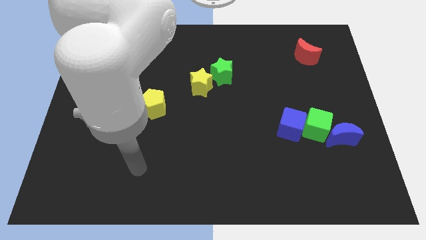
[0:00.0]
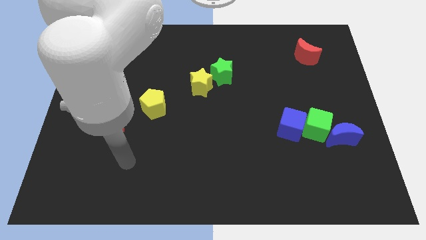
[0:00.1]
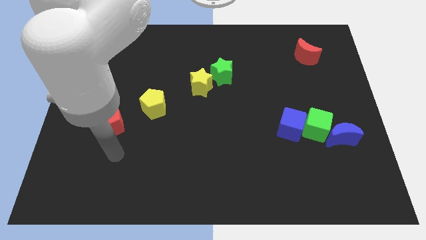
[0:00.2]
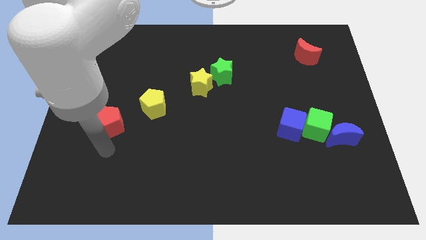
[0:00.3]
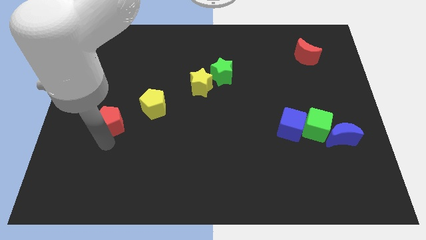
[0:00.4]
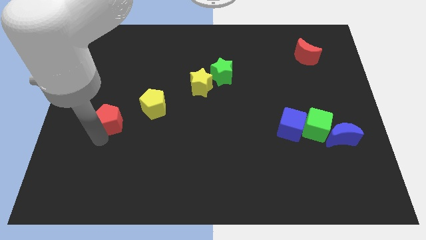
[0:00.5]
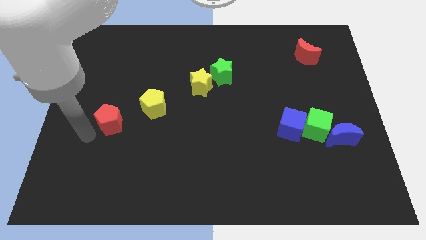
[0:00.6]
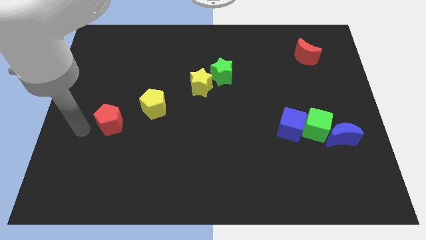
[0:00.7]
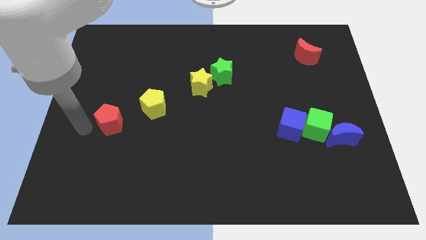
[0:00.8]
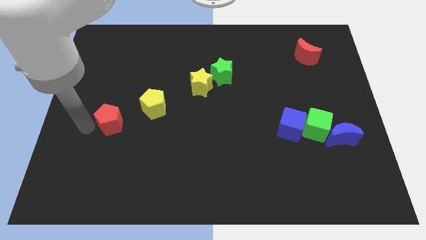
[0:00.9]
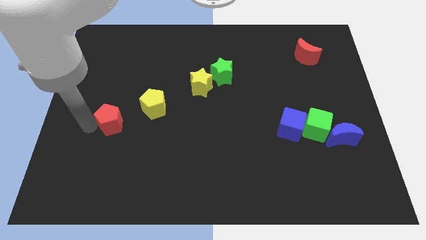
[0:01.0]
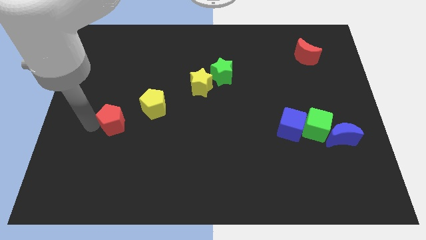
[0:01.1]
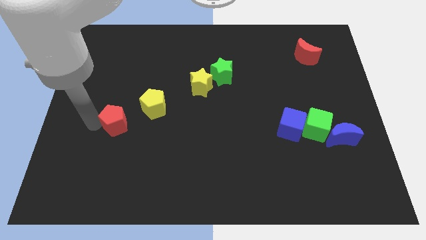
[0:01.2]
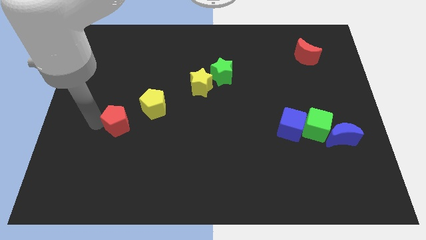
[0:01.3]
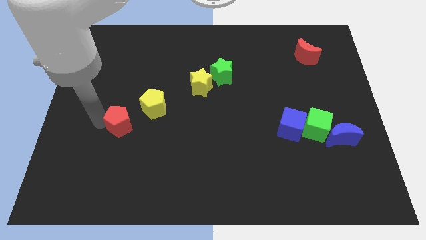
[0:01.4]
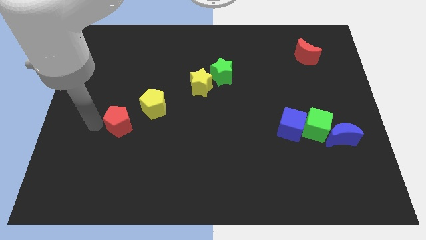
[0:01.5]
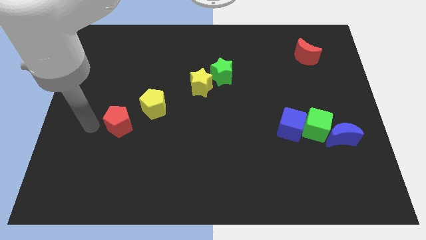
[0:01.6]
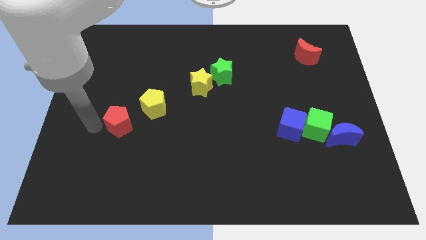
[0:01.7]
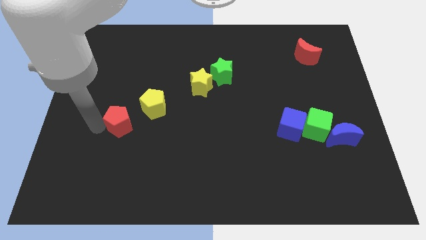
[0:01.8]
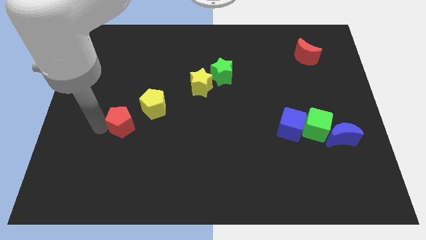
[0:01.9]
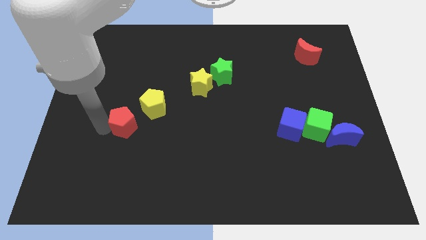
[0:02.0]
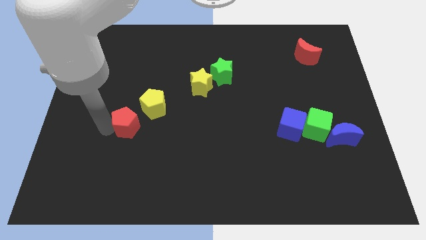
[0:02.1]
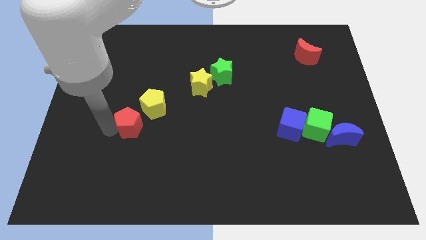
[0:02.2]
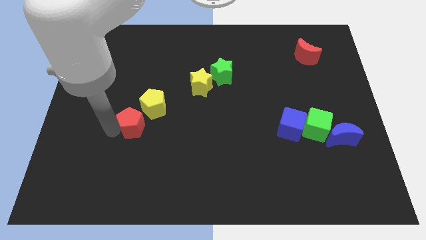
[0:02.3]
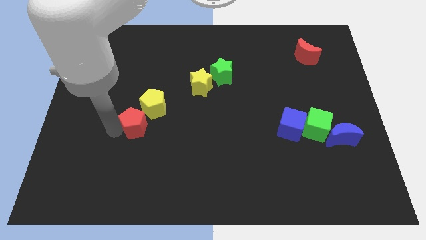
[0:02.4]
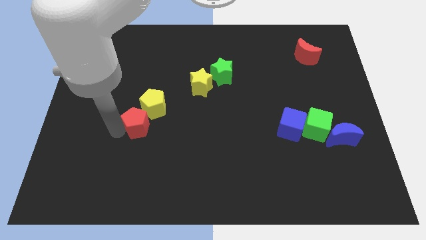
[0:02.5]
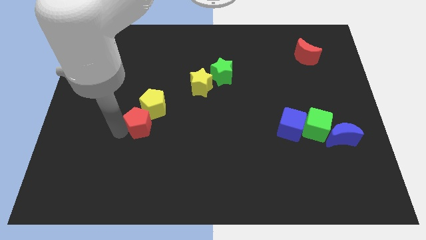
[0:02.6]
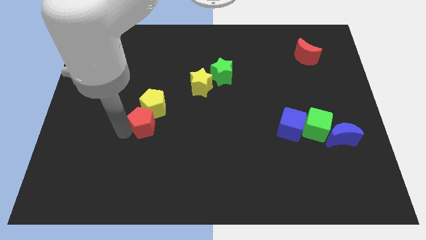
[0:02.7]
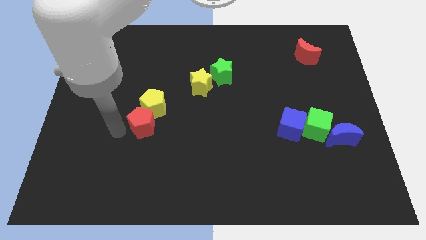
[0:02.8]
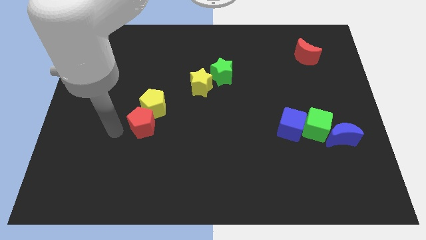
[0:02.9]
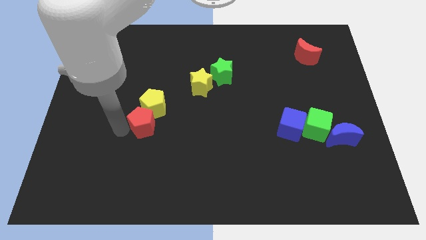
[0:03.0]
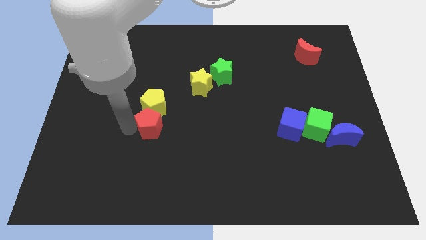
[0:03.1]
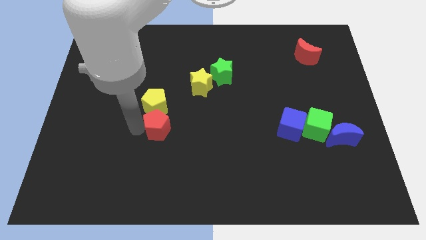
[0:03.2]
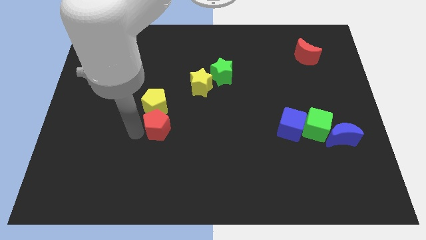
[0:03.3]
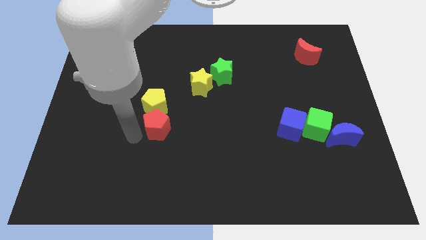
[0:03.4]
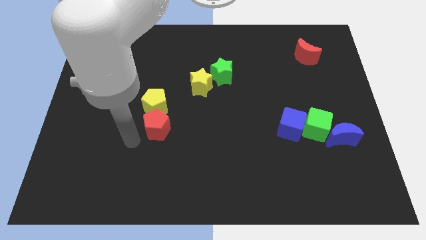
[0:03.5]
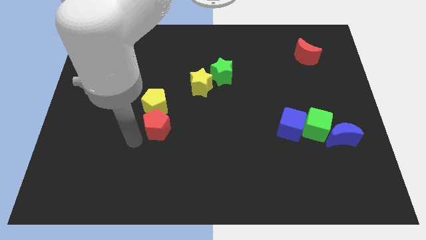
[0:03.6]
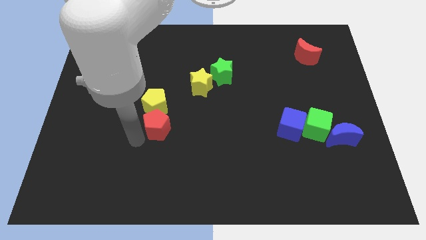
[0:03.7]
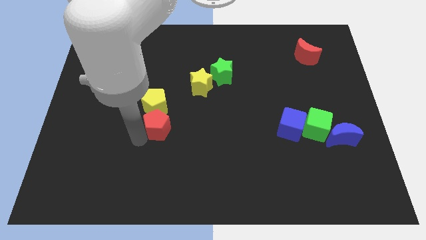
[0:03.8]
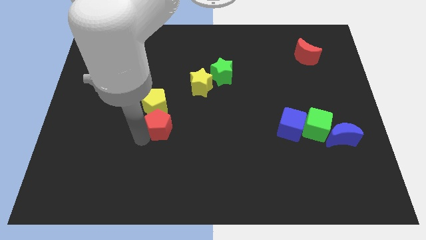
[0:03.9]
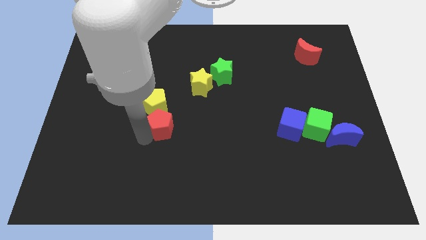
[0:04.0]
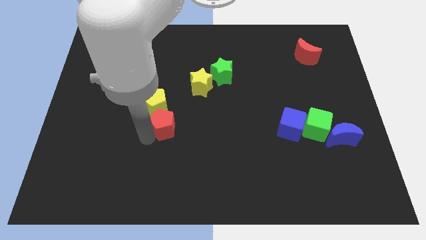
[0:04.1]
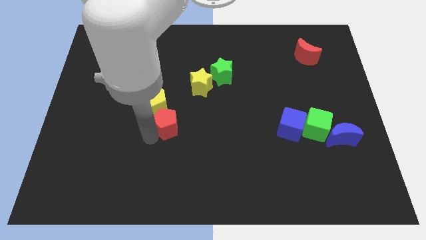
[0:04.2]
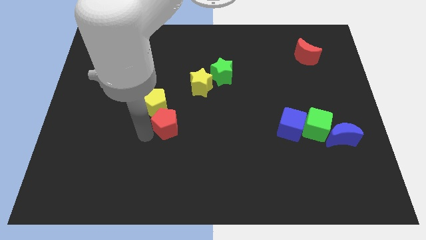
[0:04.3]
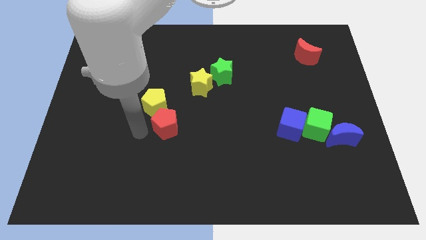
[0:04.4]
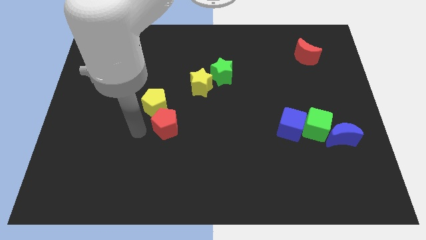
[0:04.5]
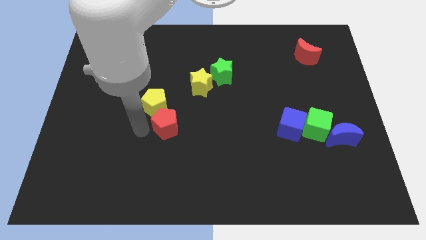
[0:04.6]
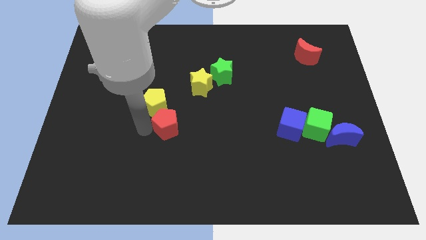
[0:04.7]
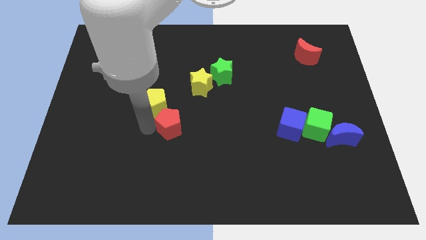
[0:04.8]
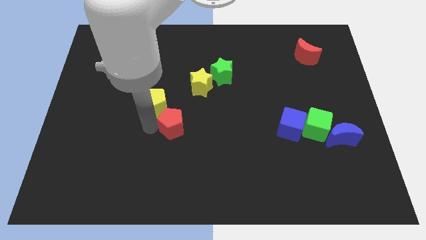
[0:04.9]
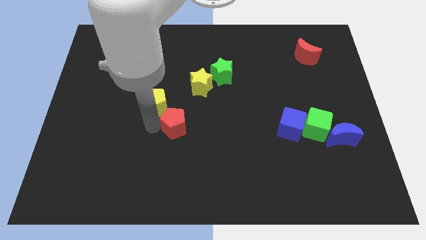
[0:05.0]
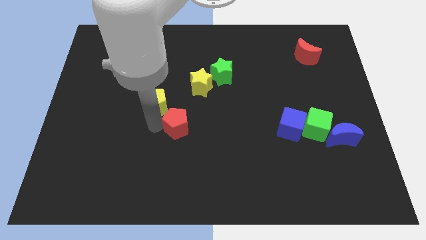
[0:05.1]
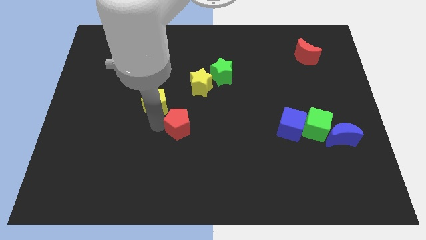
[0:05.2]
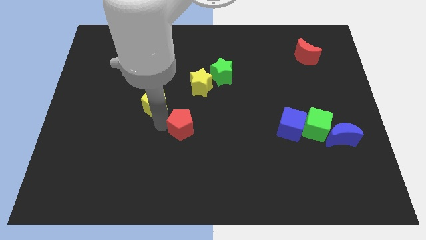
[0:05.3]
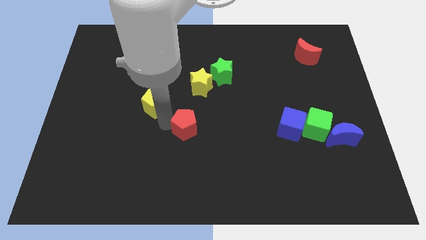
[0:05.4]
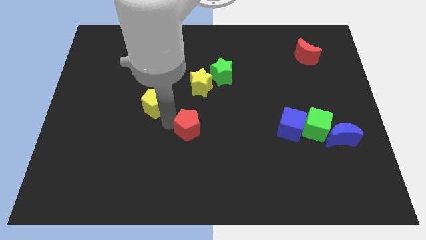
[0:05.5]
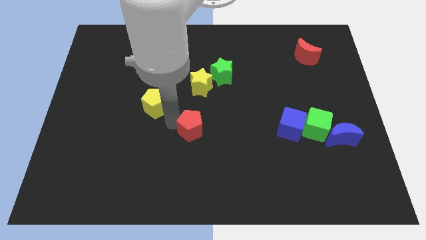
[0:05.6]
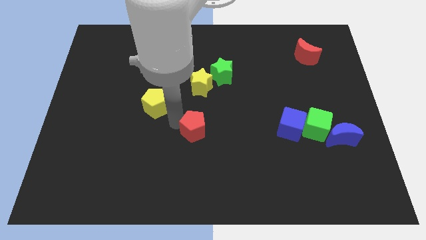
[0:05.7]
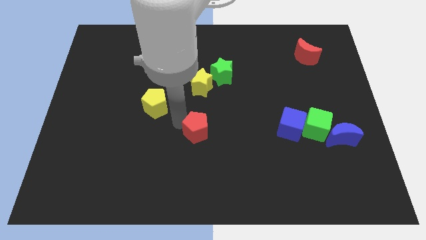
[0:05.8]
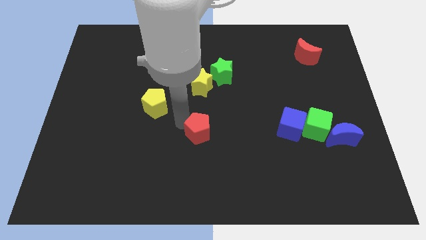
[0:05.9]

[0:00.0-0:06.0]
move the red pentagon to the right

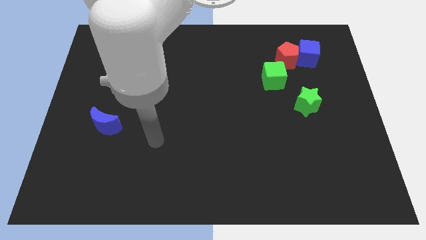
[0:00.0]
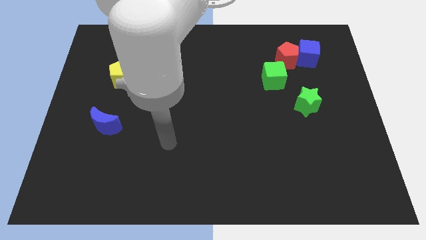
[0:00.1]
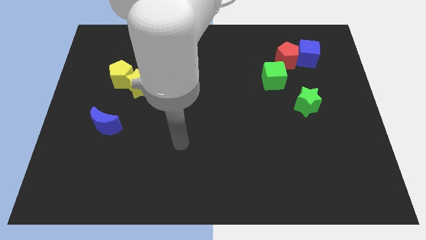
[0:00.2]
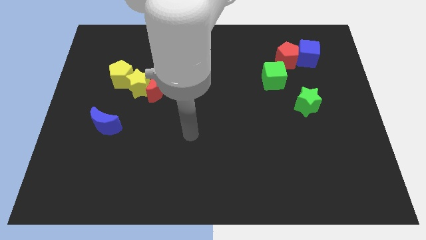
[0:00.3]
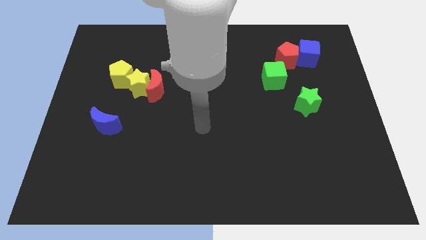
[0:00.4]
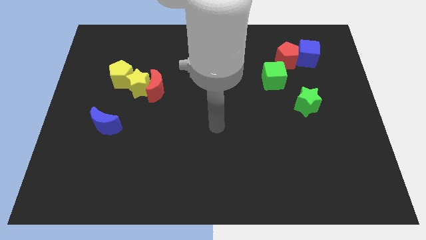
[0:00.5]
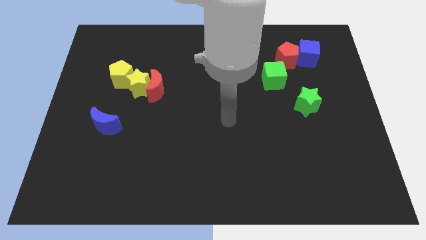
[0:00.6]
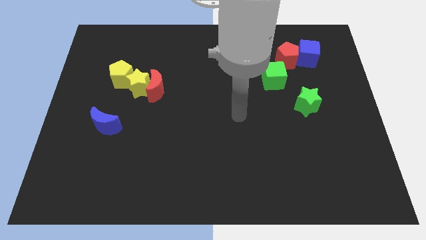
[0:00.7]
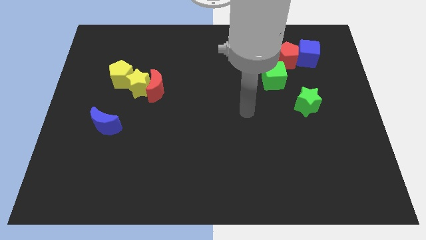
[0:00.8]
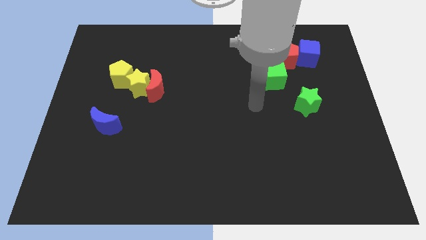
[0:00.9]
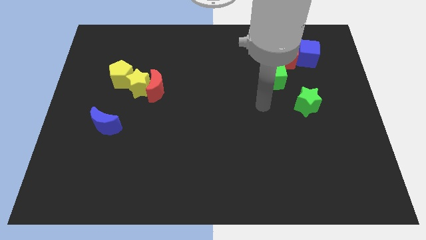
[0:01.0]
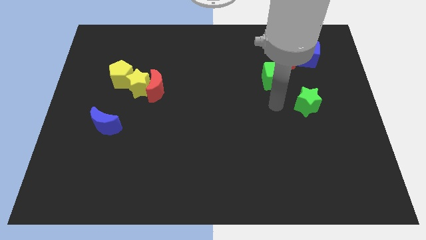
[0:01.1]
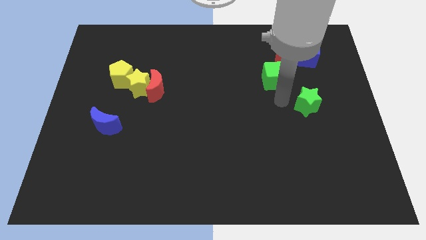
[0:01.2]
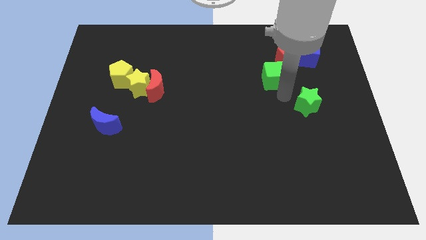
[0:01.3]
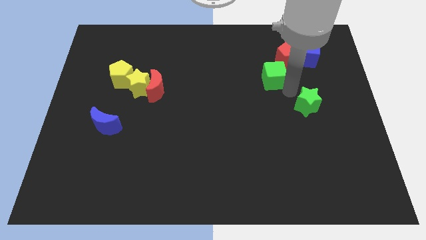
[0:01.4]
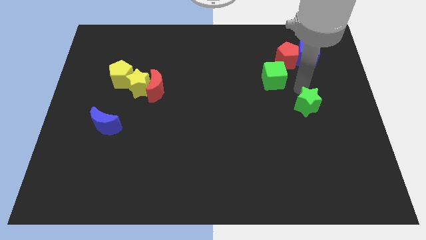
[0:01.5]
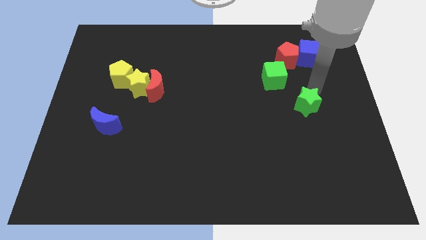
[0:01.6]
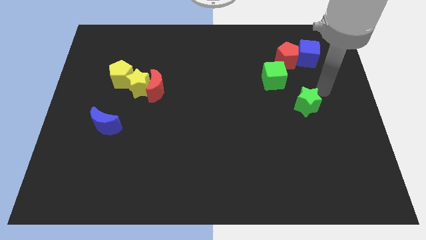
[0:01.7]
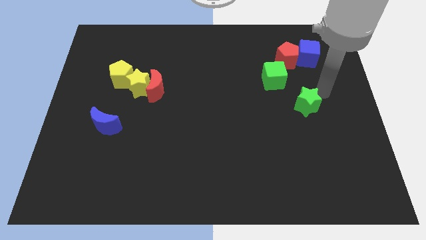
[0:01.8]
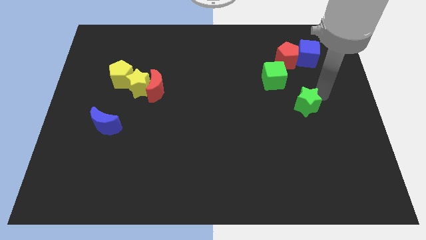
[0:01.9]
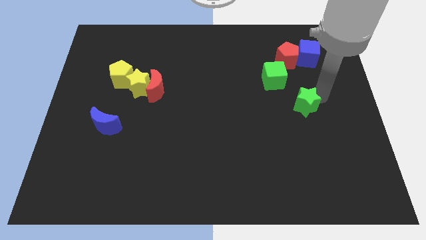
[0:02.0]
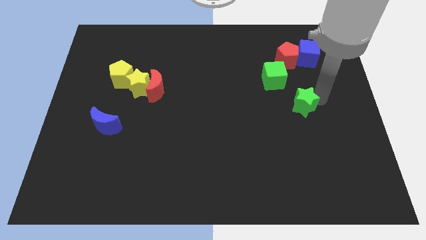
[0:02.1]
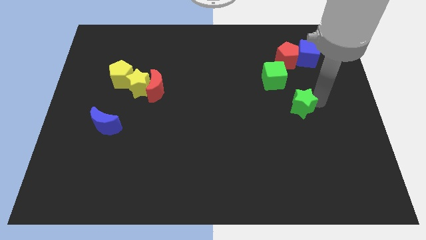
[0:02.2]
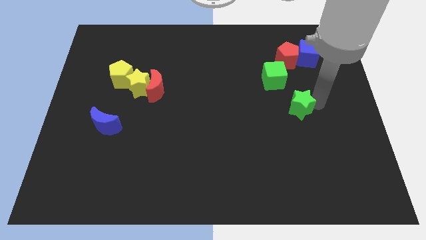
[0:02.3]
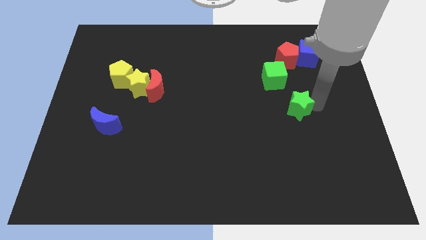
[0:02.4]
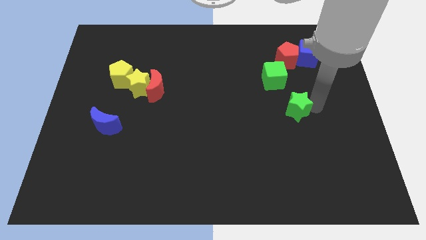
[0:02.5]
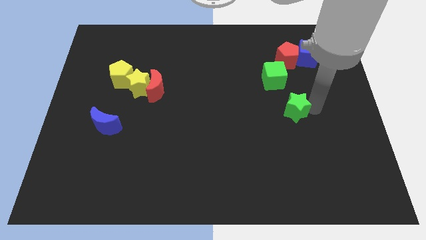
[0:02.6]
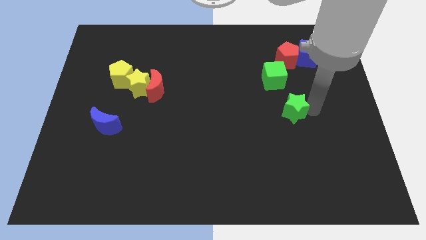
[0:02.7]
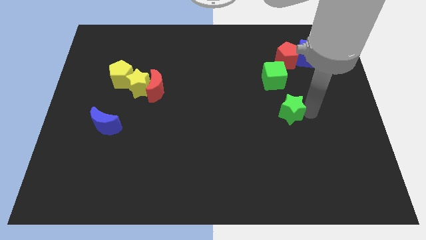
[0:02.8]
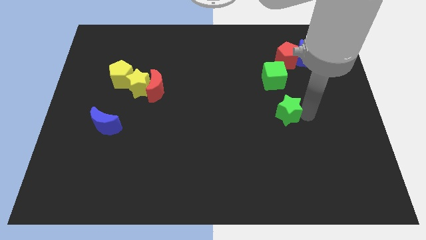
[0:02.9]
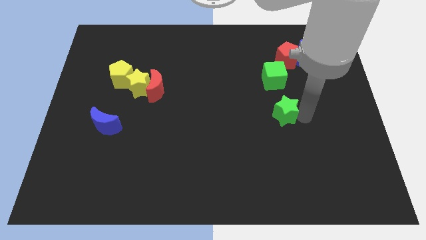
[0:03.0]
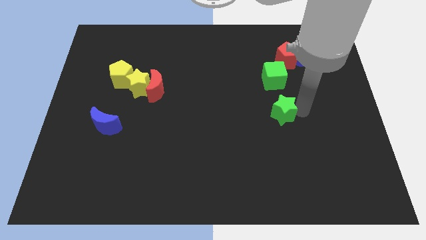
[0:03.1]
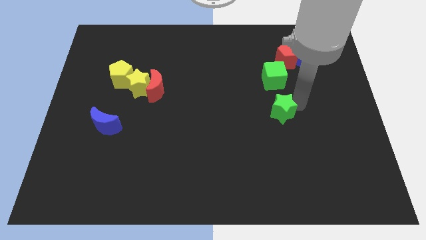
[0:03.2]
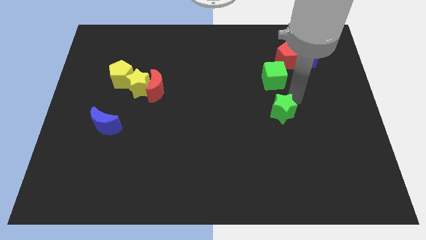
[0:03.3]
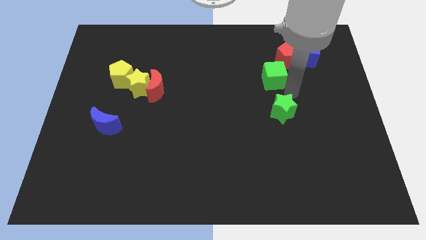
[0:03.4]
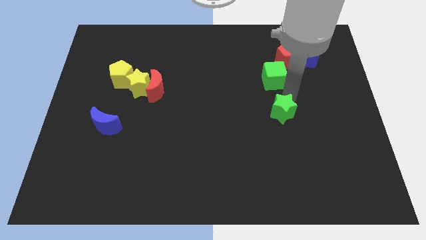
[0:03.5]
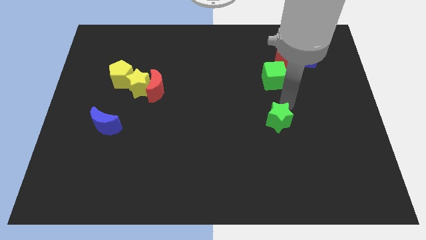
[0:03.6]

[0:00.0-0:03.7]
slide the green star a little downwards and to the left diagonally
